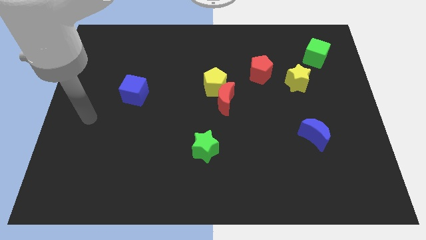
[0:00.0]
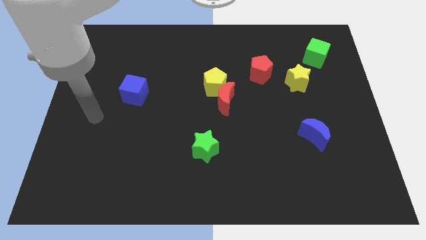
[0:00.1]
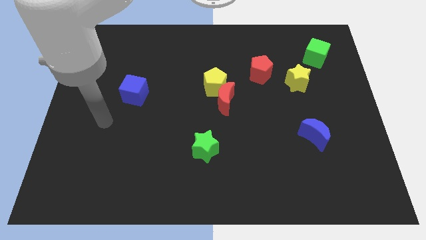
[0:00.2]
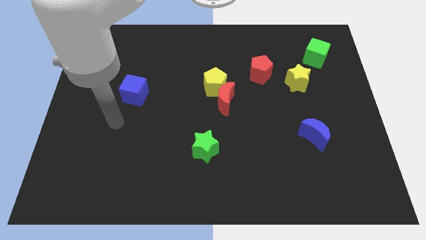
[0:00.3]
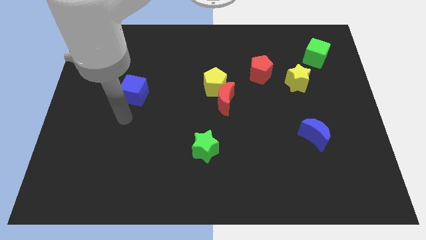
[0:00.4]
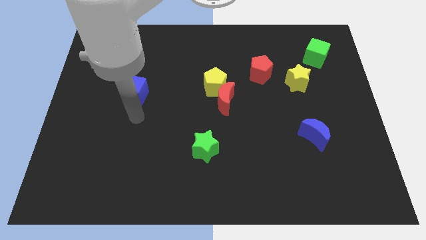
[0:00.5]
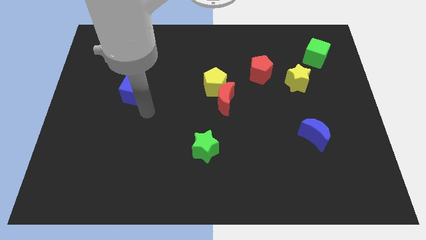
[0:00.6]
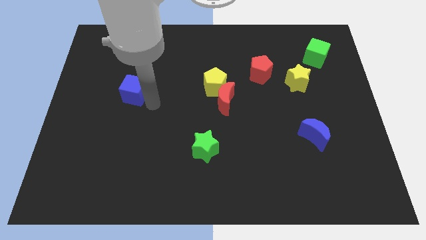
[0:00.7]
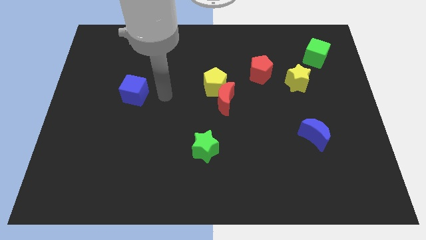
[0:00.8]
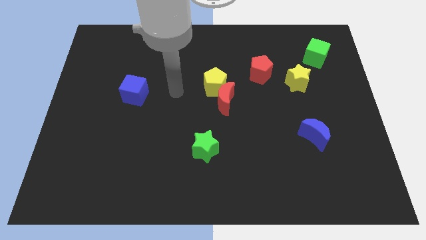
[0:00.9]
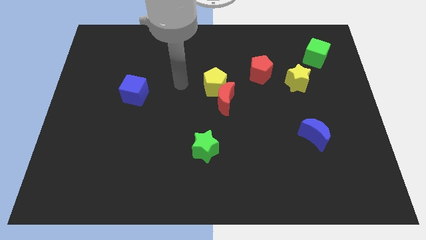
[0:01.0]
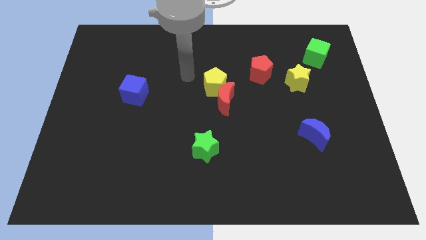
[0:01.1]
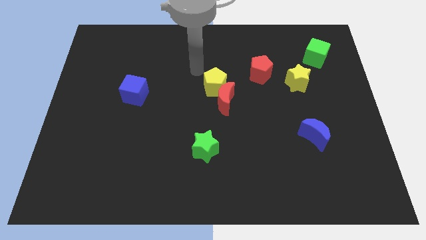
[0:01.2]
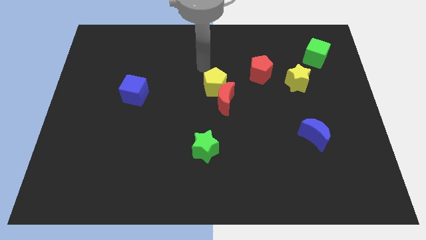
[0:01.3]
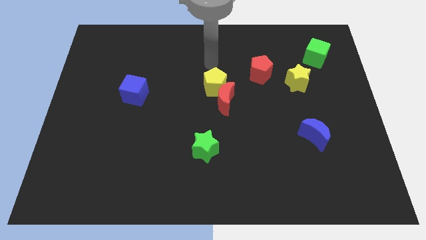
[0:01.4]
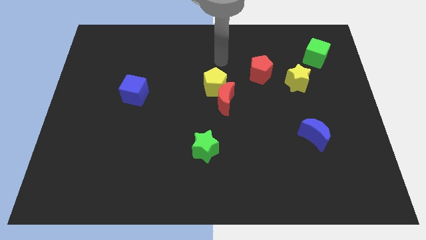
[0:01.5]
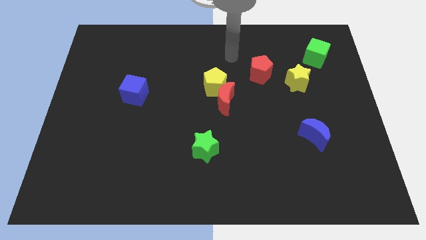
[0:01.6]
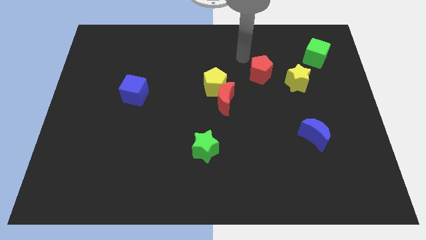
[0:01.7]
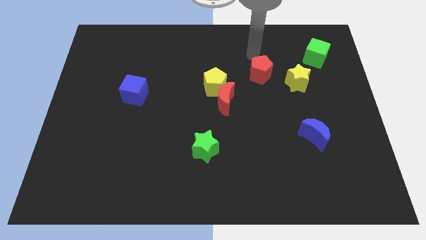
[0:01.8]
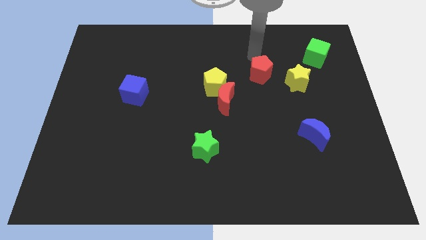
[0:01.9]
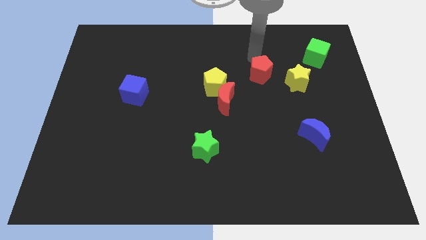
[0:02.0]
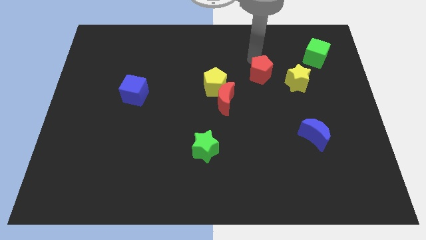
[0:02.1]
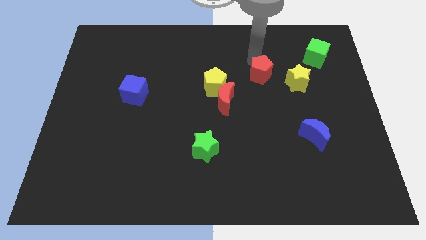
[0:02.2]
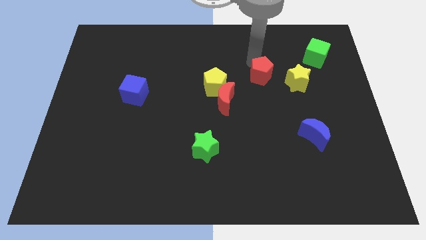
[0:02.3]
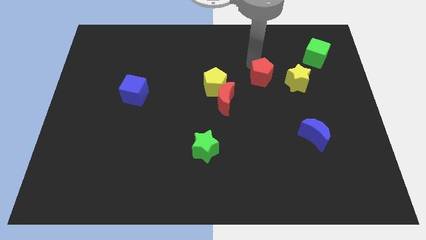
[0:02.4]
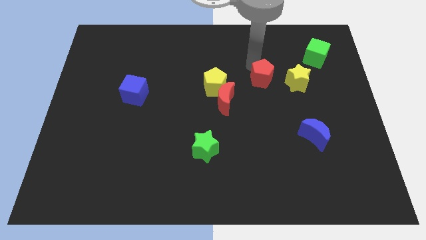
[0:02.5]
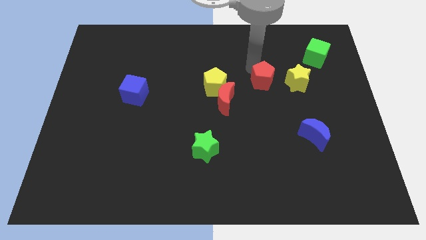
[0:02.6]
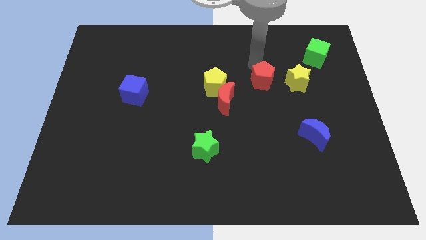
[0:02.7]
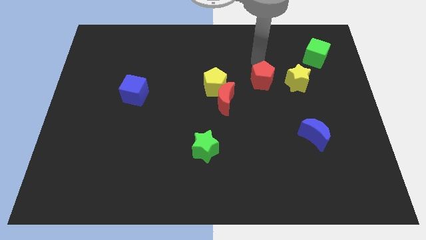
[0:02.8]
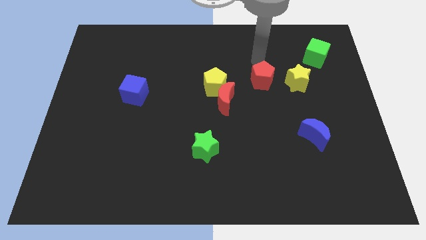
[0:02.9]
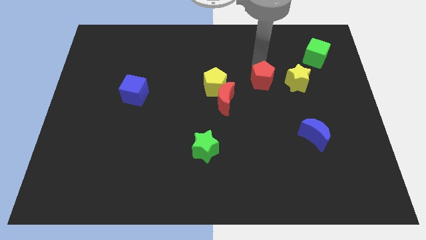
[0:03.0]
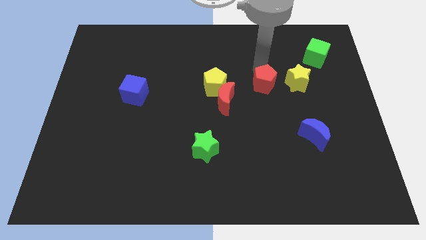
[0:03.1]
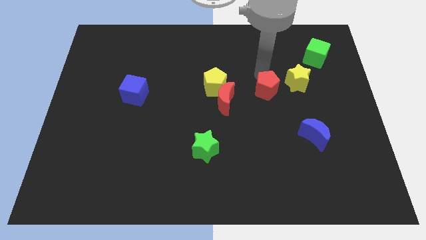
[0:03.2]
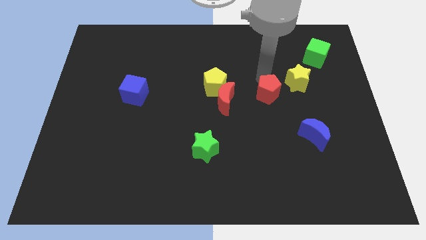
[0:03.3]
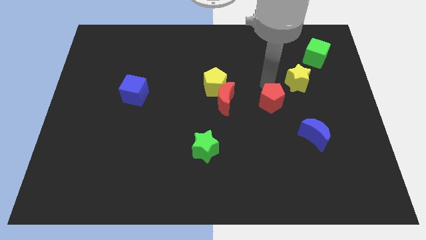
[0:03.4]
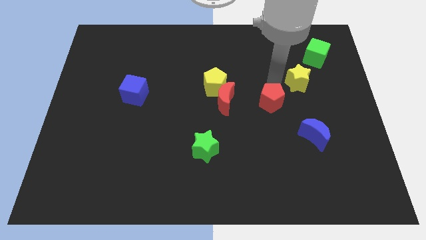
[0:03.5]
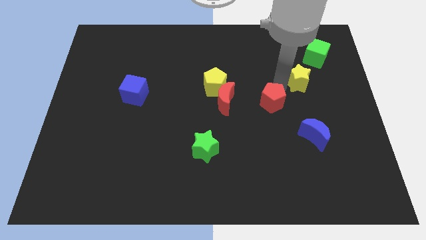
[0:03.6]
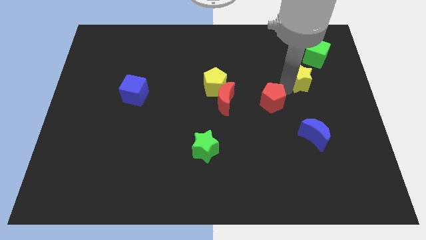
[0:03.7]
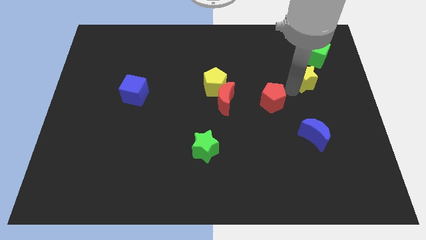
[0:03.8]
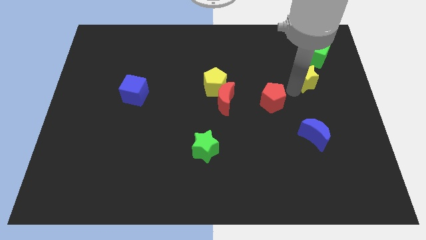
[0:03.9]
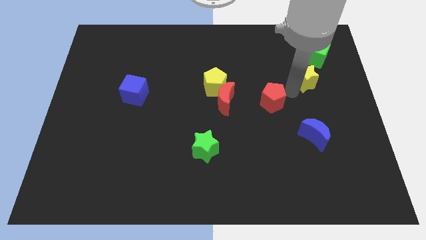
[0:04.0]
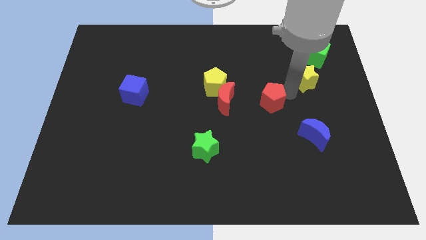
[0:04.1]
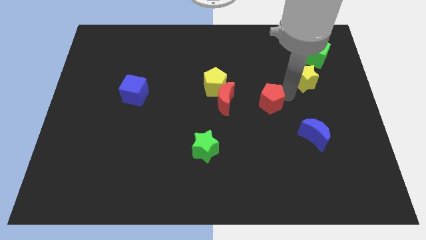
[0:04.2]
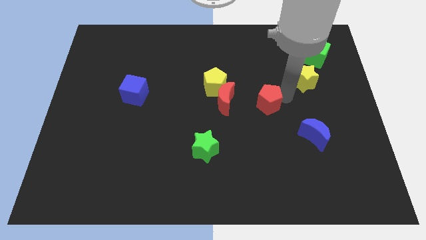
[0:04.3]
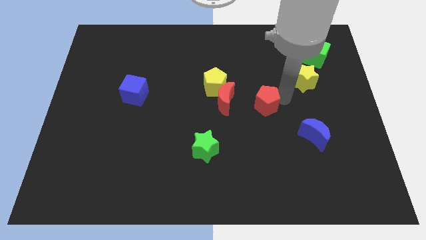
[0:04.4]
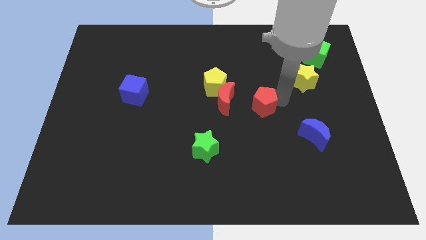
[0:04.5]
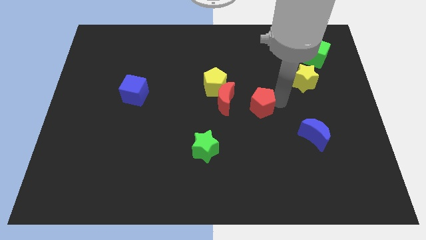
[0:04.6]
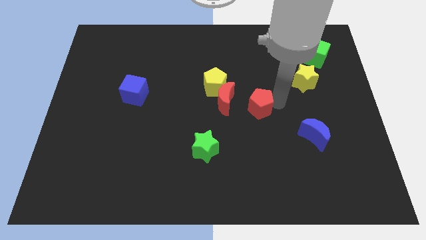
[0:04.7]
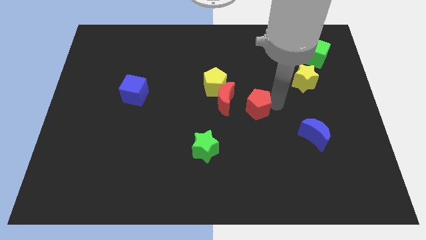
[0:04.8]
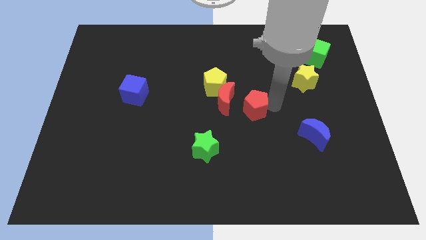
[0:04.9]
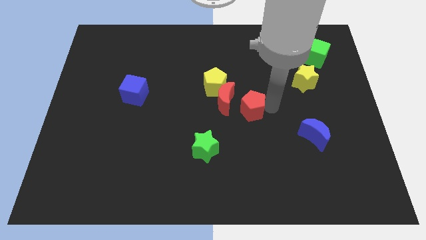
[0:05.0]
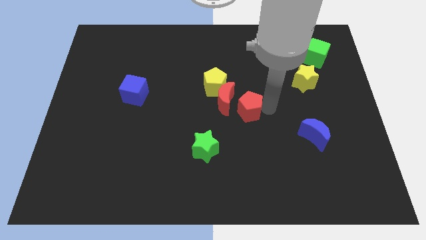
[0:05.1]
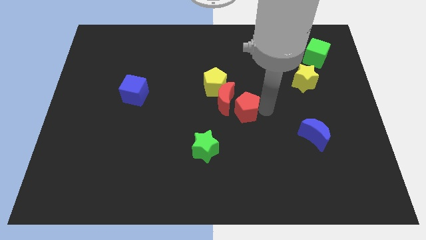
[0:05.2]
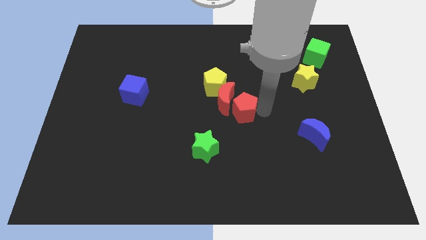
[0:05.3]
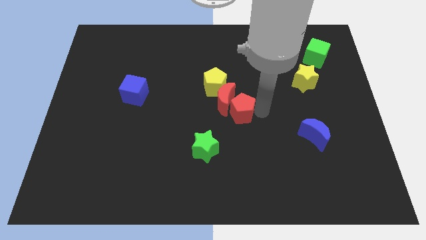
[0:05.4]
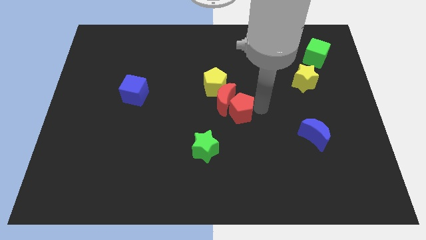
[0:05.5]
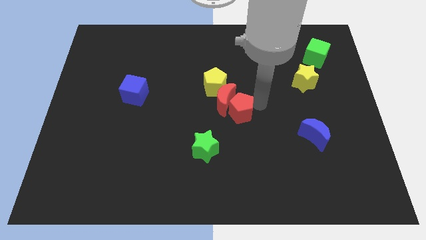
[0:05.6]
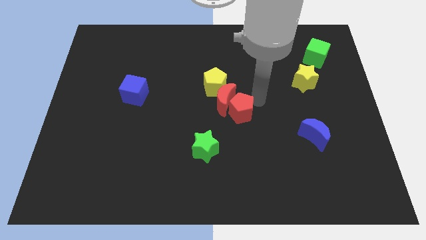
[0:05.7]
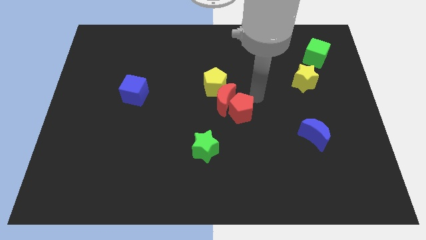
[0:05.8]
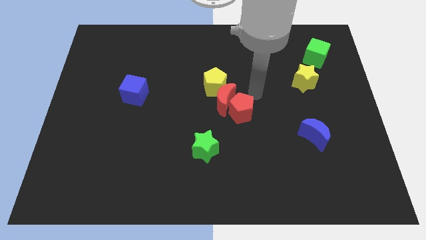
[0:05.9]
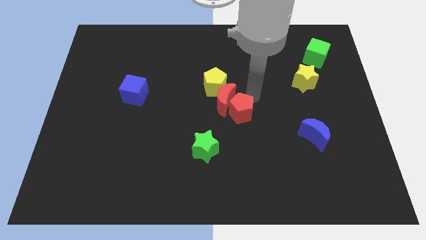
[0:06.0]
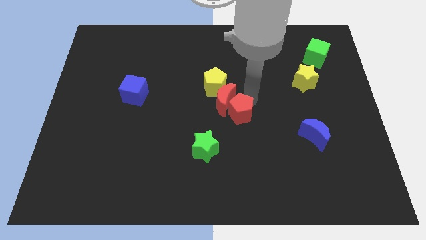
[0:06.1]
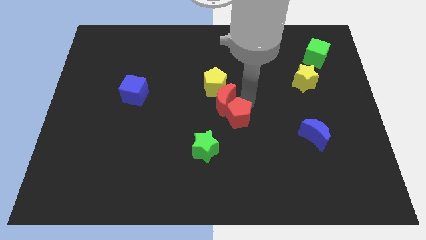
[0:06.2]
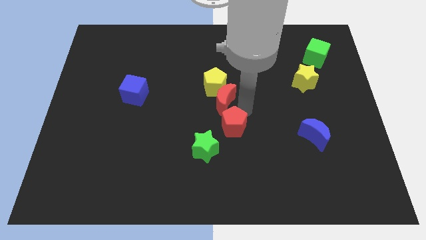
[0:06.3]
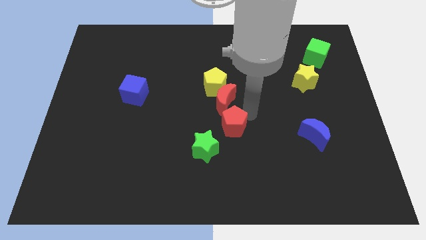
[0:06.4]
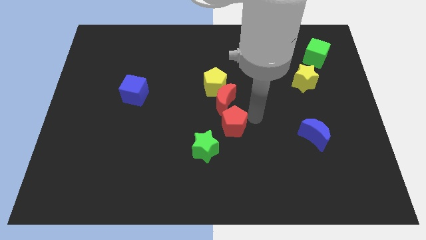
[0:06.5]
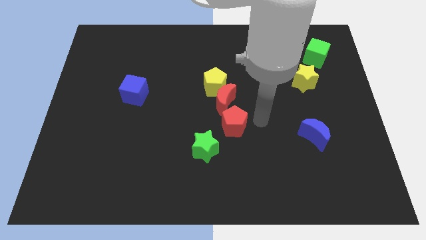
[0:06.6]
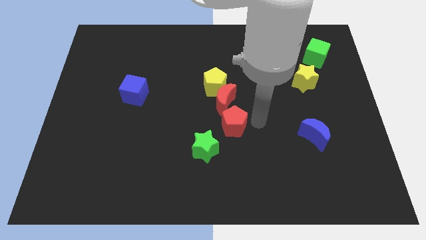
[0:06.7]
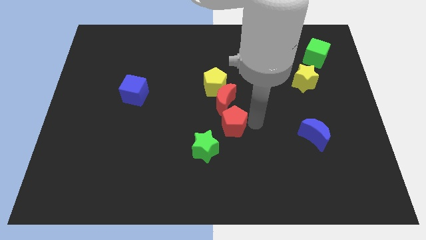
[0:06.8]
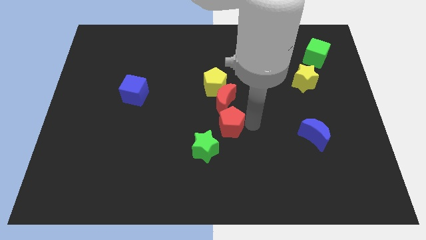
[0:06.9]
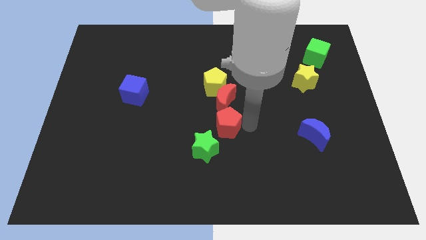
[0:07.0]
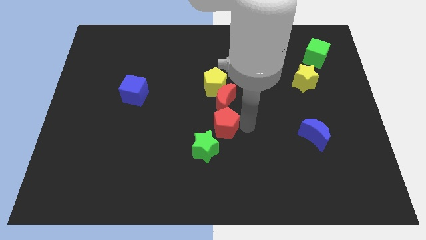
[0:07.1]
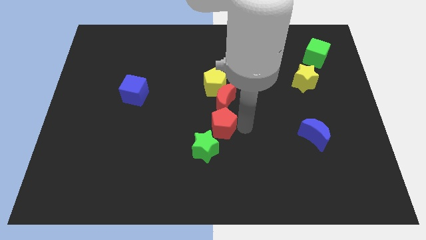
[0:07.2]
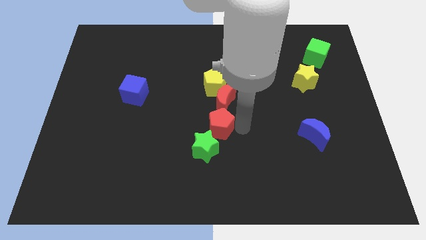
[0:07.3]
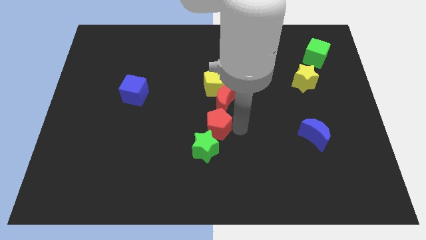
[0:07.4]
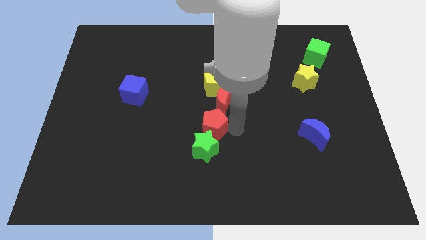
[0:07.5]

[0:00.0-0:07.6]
slide the red pentagon down and to the left

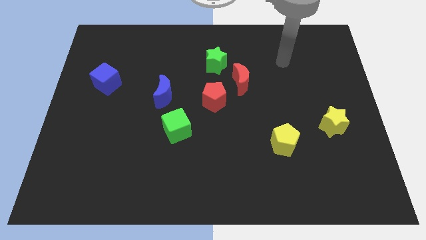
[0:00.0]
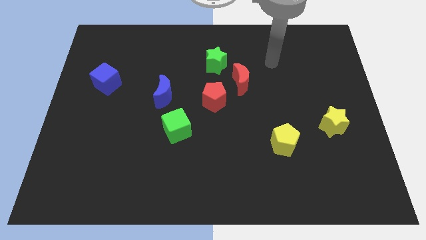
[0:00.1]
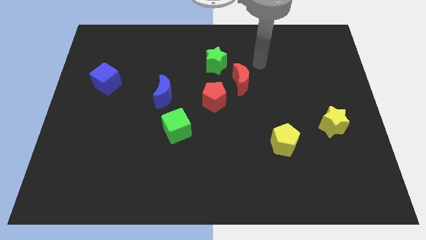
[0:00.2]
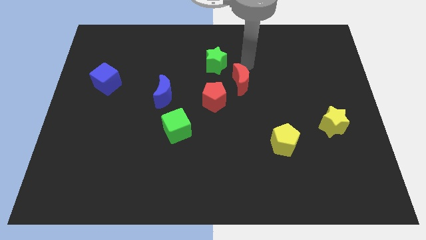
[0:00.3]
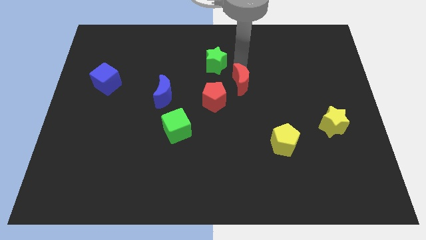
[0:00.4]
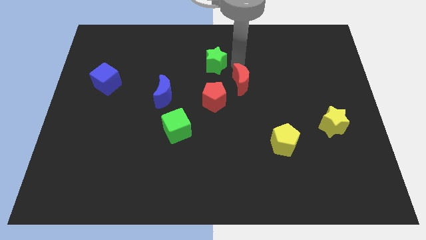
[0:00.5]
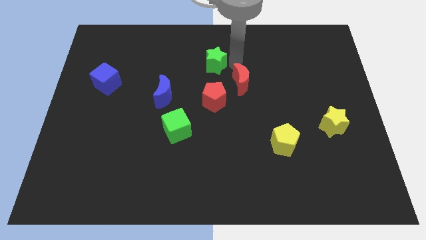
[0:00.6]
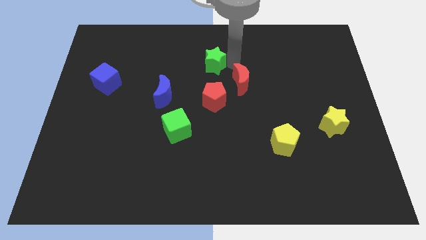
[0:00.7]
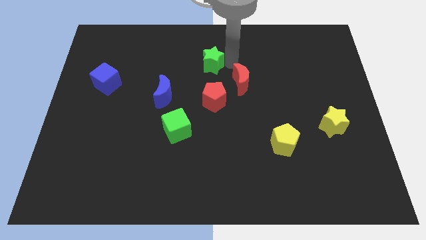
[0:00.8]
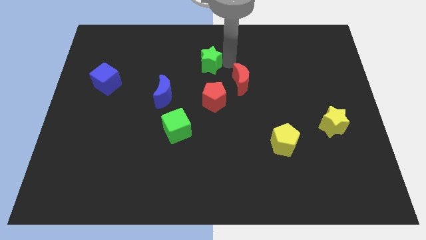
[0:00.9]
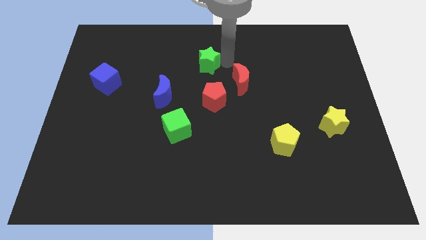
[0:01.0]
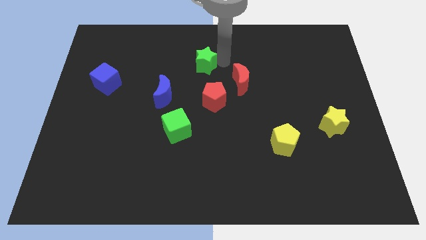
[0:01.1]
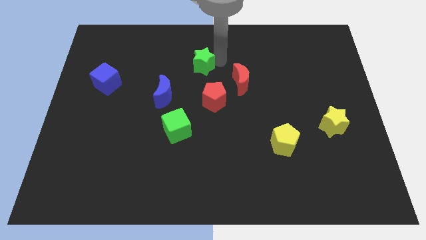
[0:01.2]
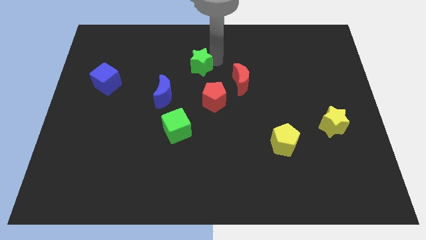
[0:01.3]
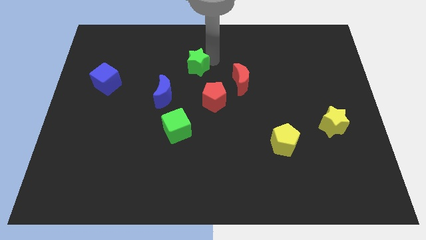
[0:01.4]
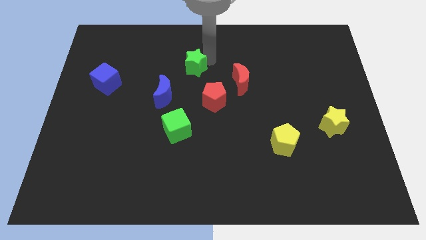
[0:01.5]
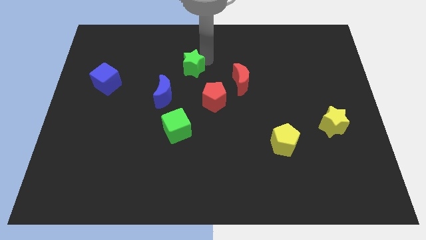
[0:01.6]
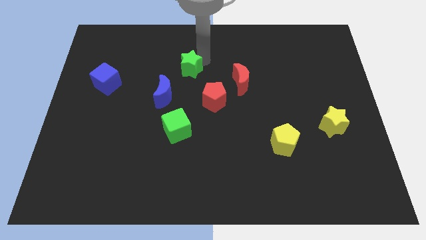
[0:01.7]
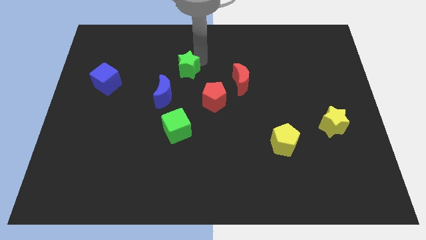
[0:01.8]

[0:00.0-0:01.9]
slightly push the green star left
